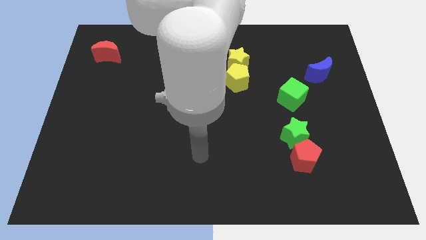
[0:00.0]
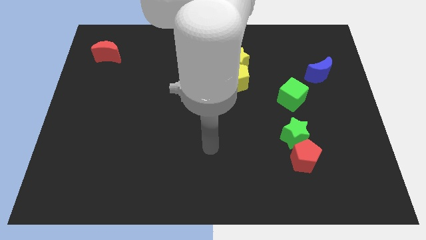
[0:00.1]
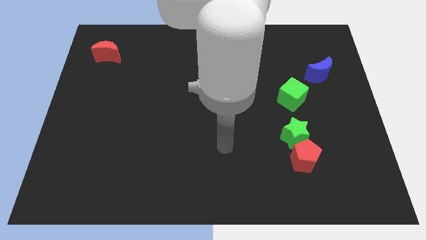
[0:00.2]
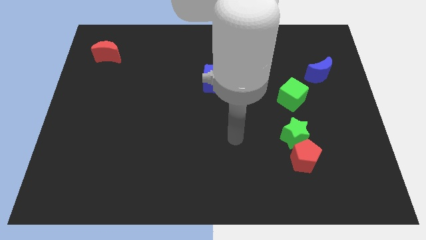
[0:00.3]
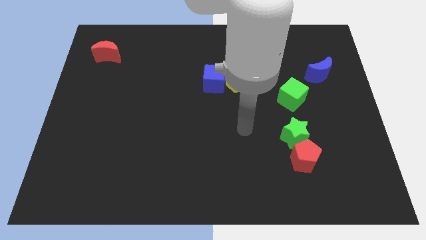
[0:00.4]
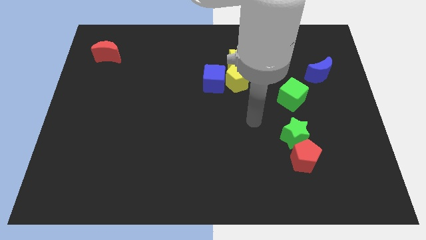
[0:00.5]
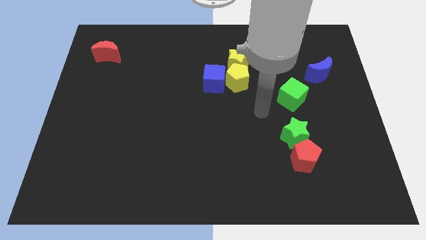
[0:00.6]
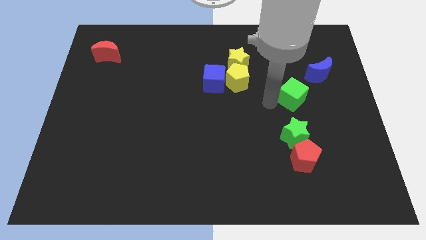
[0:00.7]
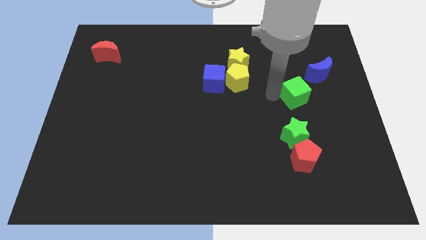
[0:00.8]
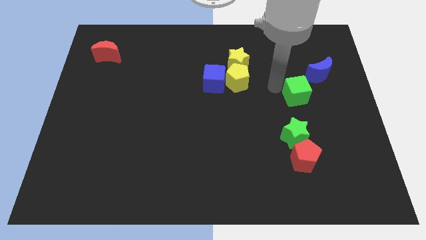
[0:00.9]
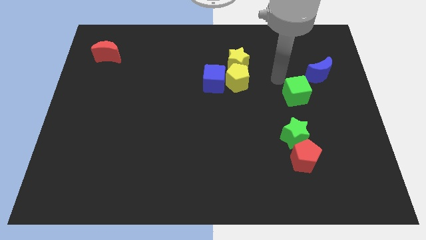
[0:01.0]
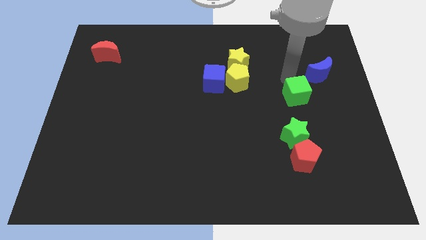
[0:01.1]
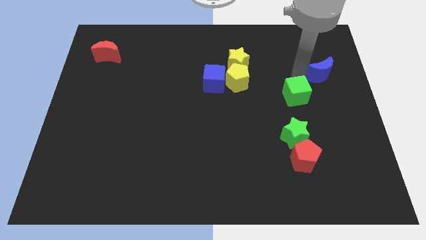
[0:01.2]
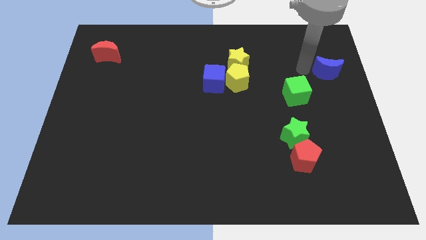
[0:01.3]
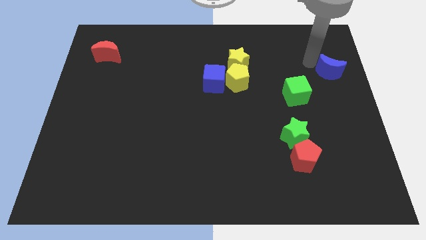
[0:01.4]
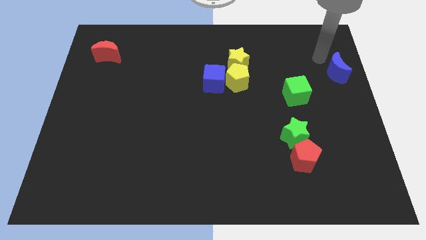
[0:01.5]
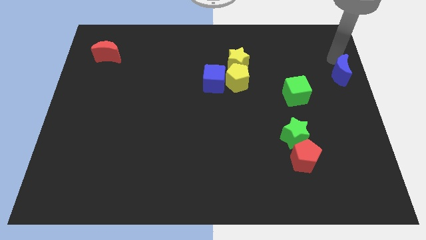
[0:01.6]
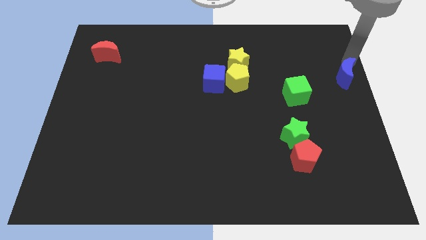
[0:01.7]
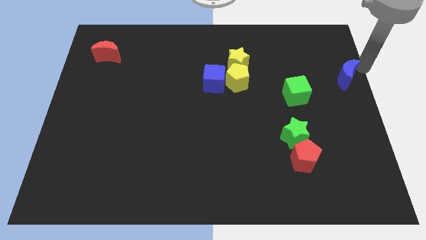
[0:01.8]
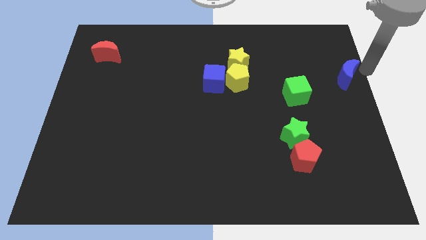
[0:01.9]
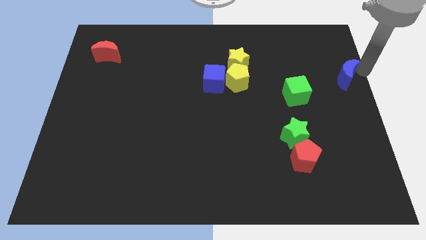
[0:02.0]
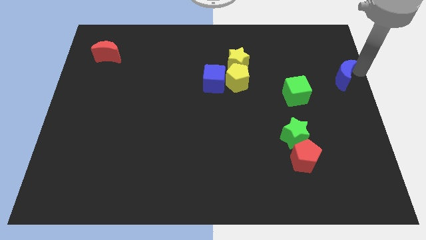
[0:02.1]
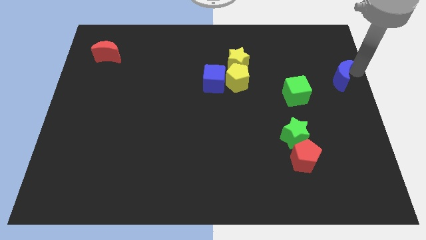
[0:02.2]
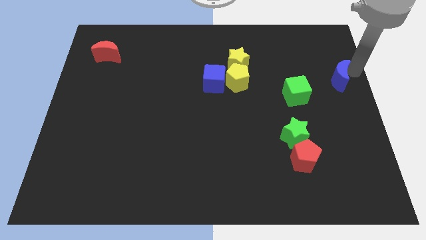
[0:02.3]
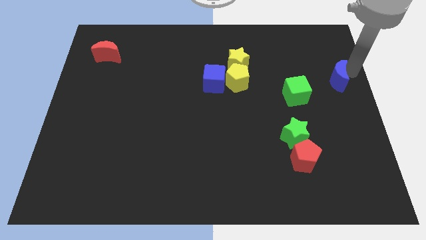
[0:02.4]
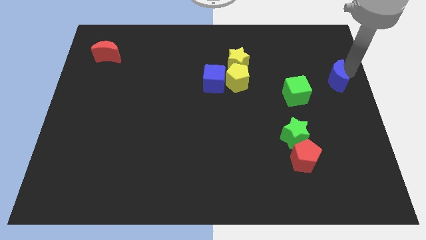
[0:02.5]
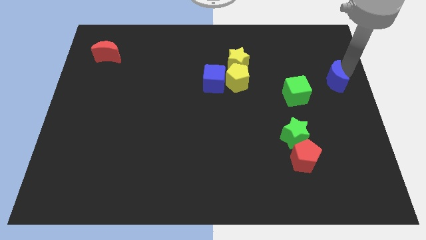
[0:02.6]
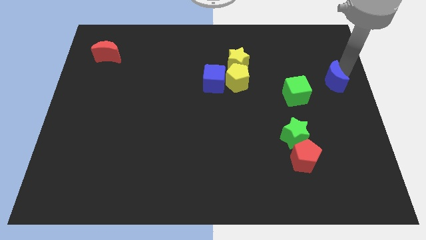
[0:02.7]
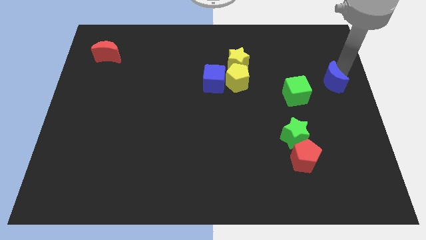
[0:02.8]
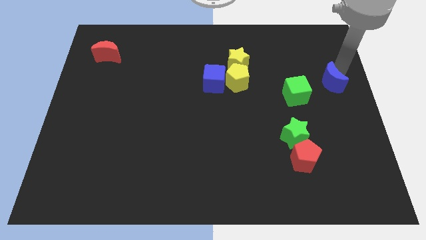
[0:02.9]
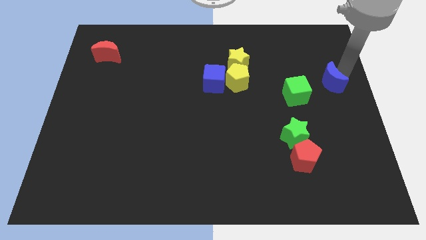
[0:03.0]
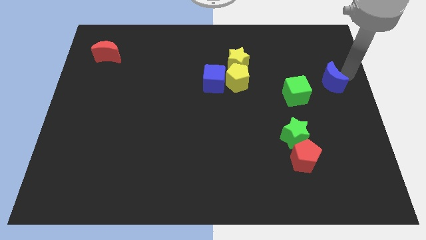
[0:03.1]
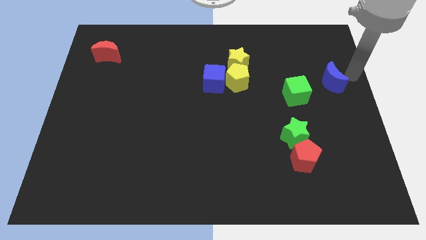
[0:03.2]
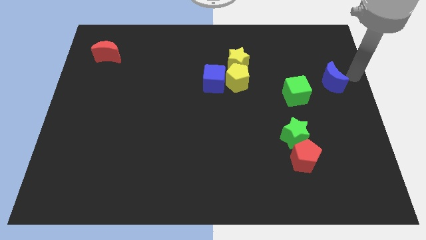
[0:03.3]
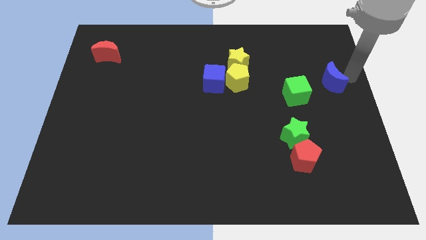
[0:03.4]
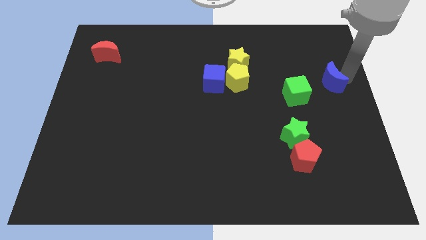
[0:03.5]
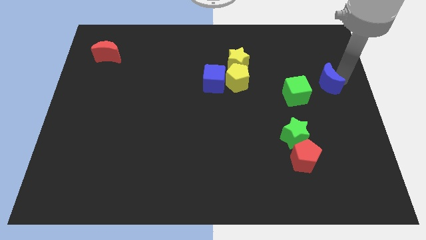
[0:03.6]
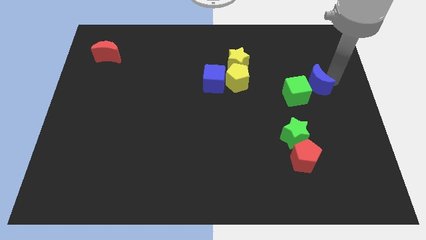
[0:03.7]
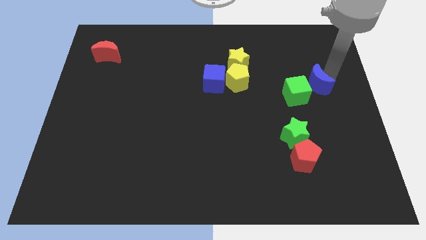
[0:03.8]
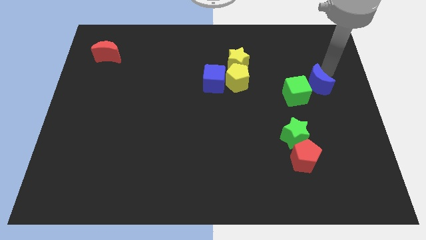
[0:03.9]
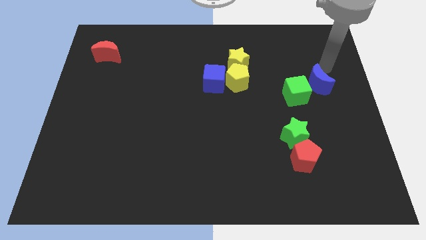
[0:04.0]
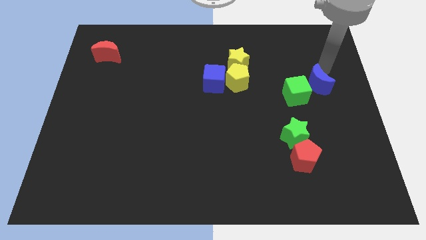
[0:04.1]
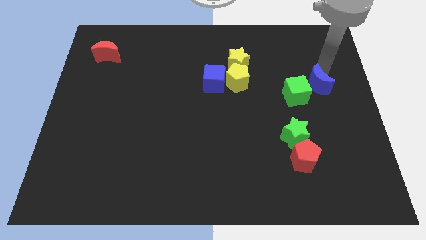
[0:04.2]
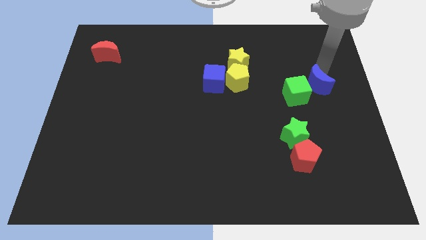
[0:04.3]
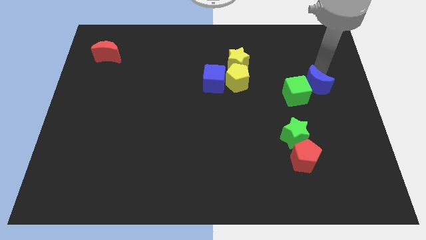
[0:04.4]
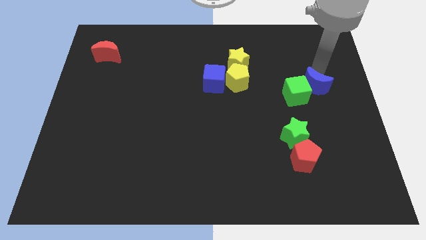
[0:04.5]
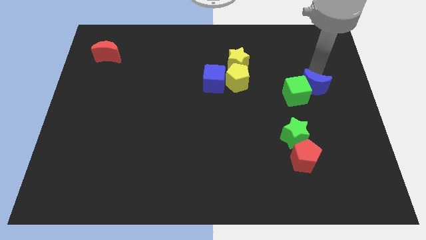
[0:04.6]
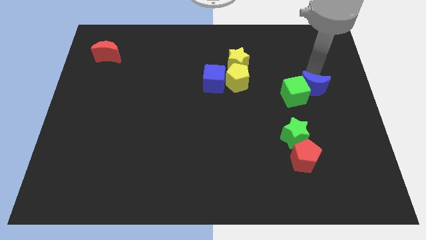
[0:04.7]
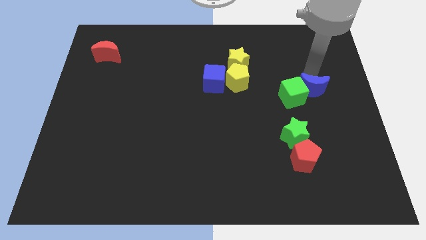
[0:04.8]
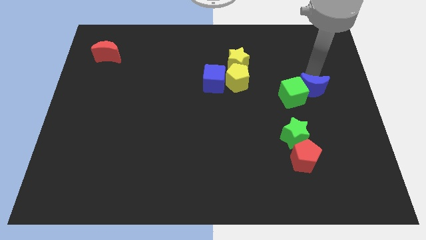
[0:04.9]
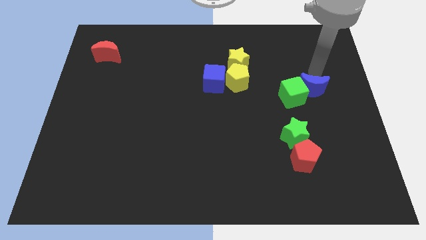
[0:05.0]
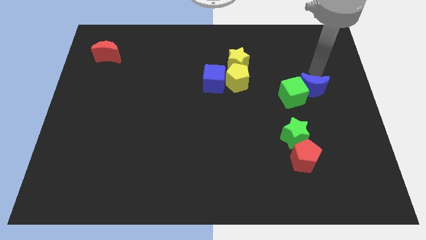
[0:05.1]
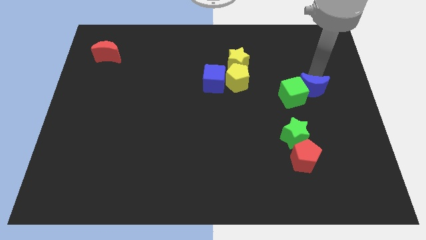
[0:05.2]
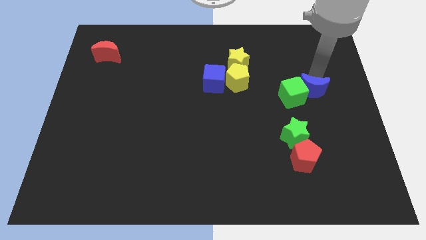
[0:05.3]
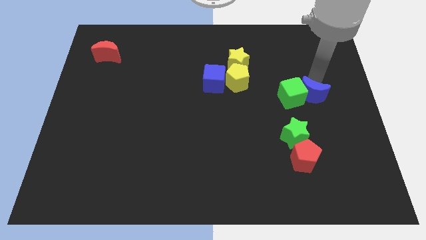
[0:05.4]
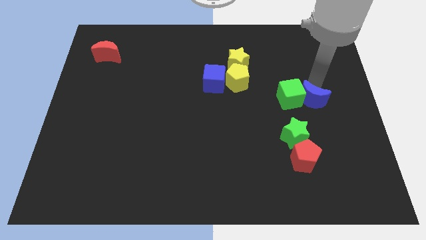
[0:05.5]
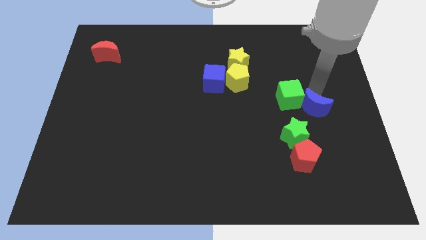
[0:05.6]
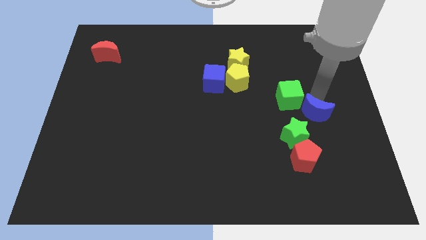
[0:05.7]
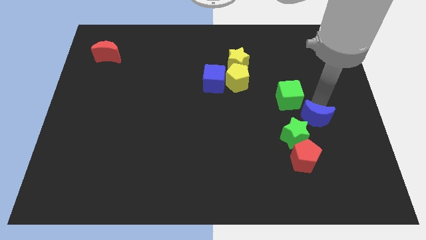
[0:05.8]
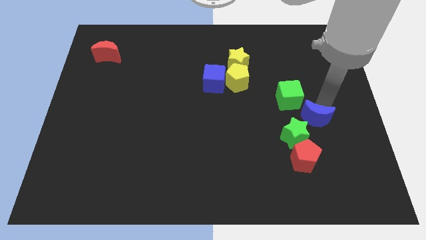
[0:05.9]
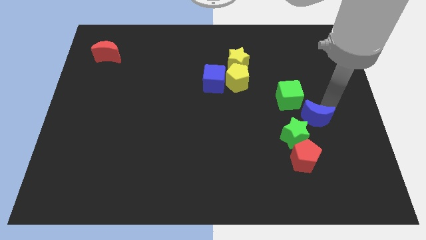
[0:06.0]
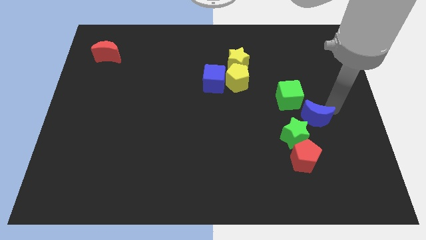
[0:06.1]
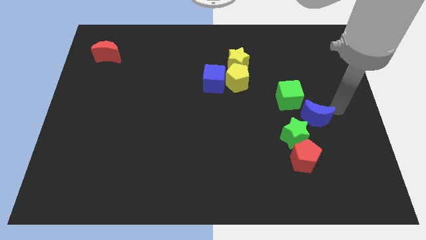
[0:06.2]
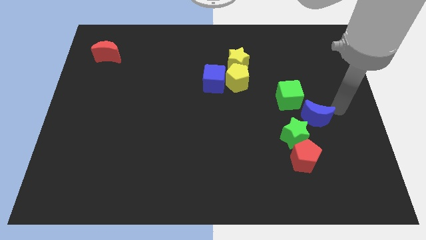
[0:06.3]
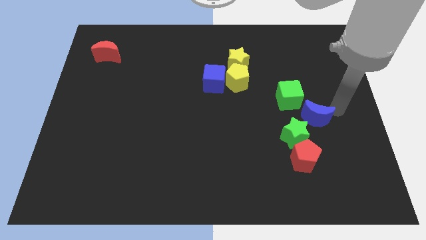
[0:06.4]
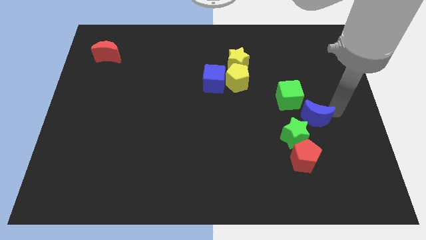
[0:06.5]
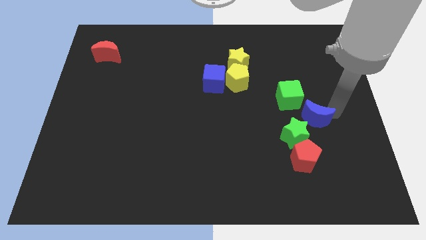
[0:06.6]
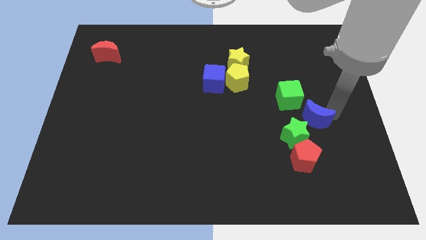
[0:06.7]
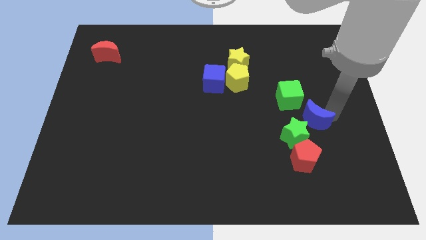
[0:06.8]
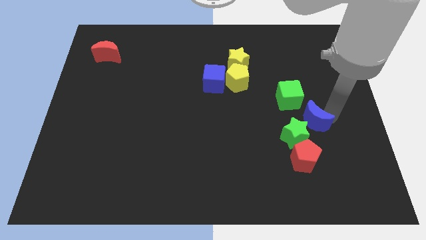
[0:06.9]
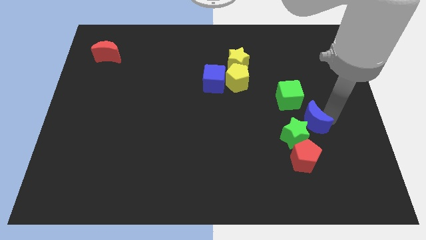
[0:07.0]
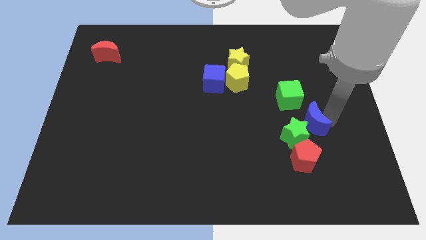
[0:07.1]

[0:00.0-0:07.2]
move the blue moon close to the green star
